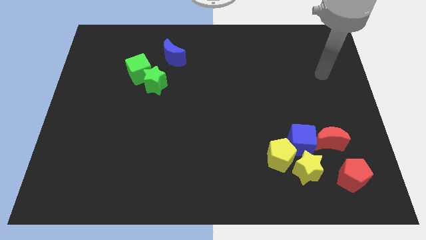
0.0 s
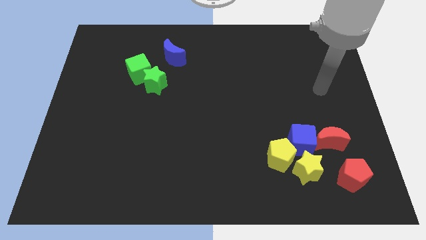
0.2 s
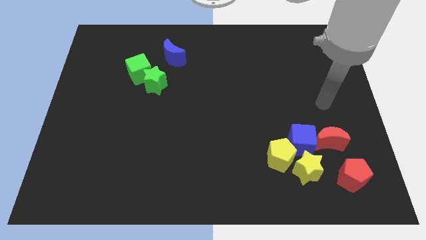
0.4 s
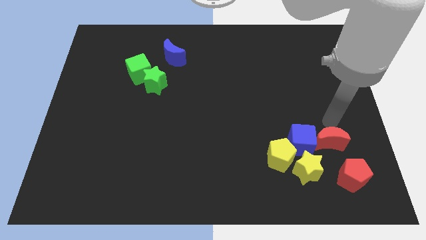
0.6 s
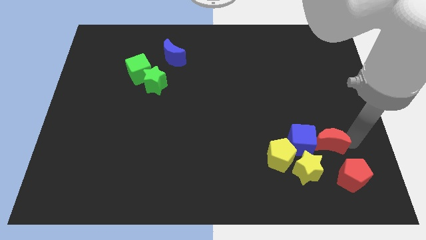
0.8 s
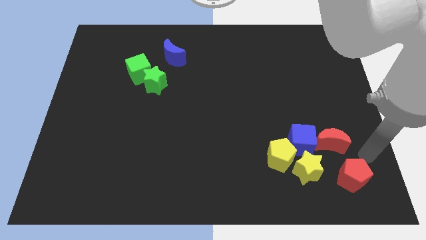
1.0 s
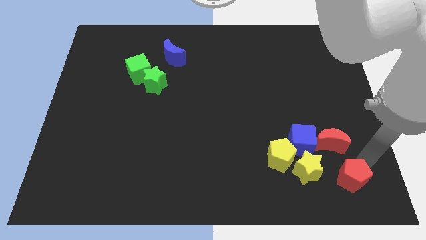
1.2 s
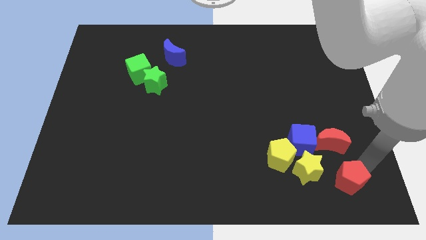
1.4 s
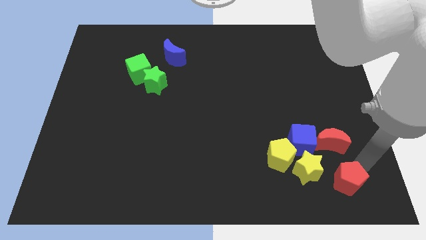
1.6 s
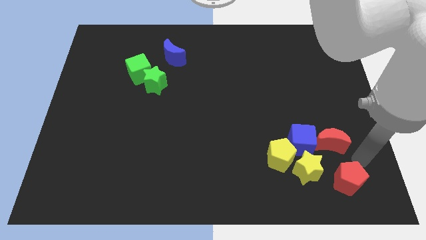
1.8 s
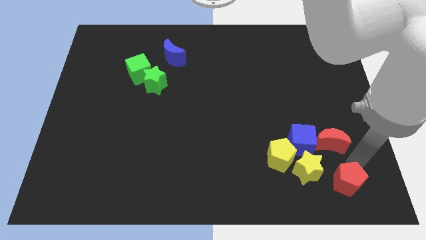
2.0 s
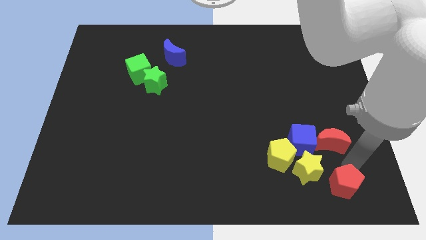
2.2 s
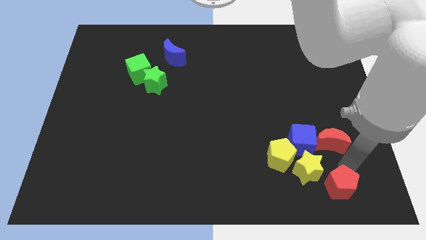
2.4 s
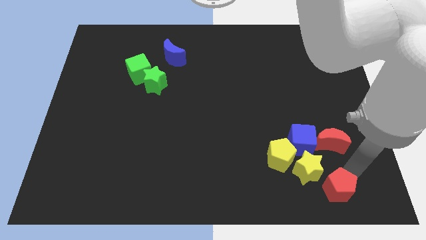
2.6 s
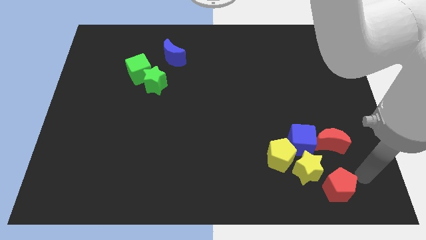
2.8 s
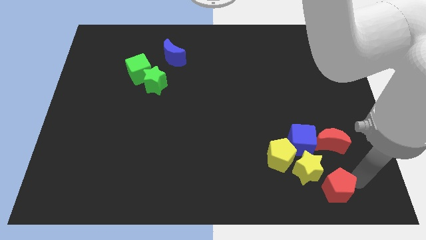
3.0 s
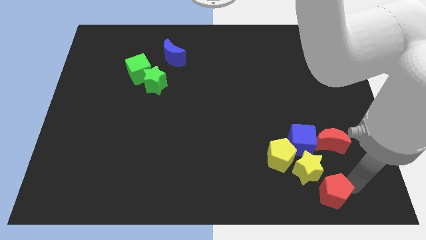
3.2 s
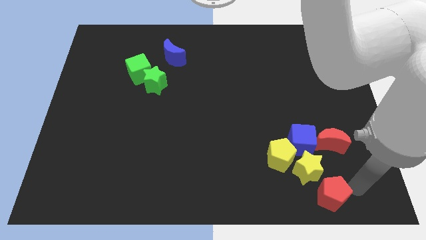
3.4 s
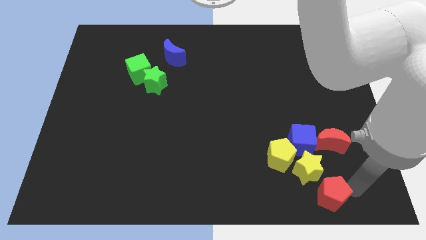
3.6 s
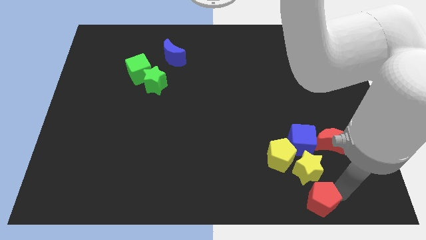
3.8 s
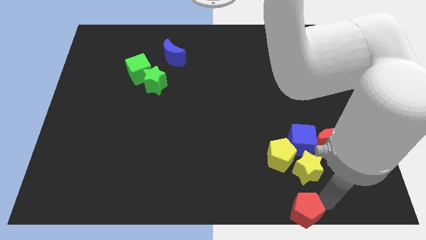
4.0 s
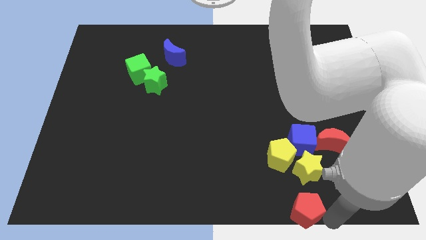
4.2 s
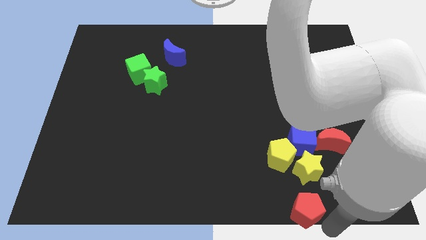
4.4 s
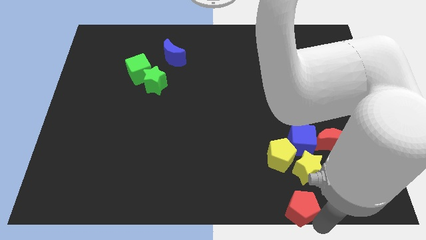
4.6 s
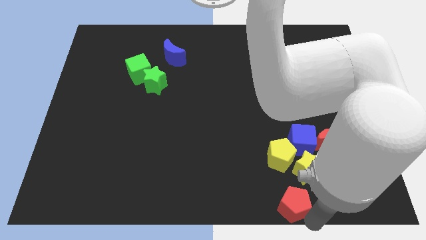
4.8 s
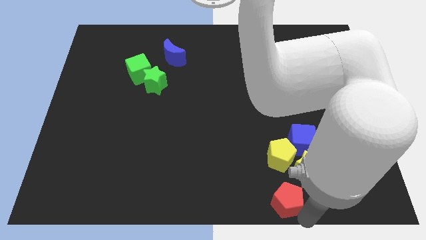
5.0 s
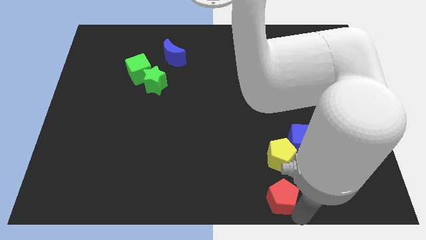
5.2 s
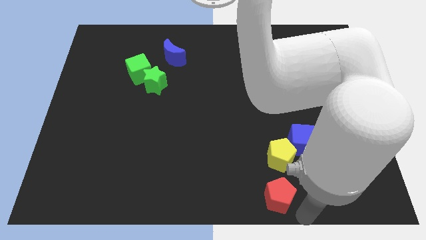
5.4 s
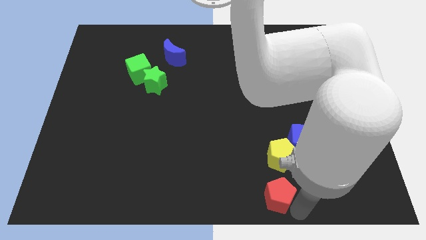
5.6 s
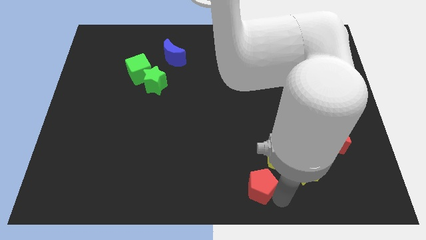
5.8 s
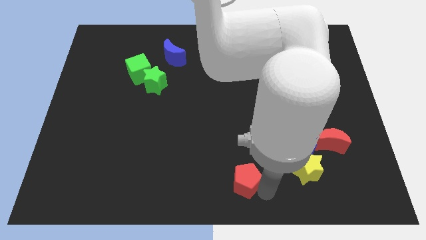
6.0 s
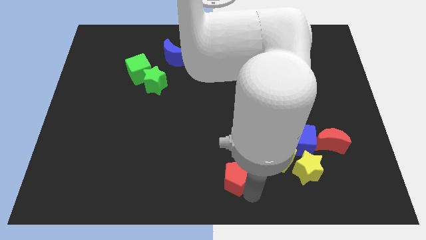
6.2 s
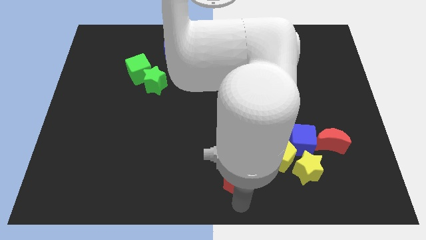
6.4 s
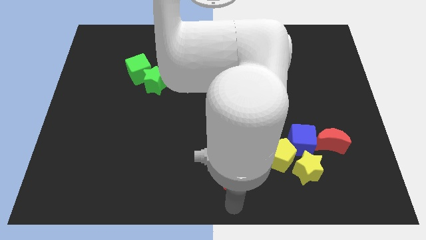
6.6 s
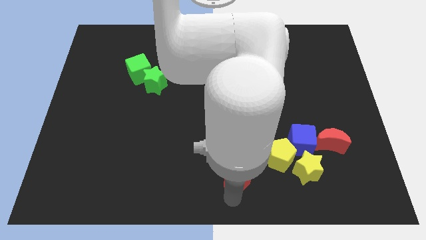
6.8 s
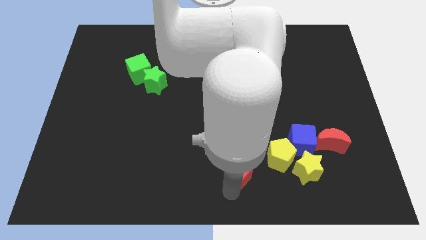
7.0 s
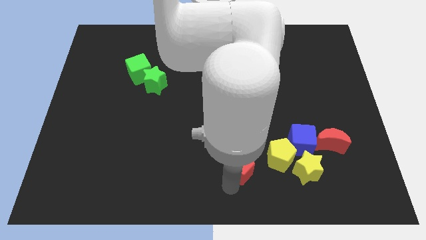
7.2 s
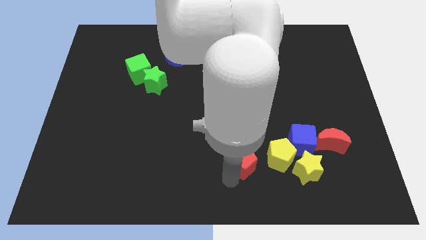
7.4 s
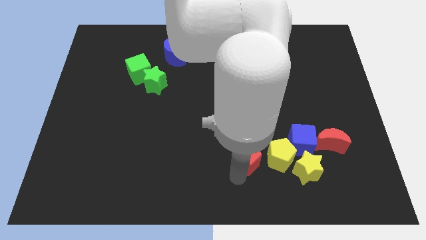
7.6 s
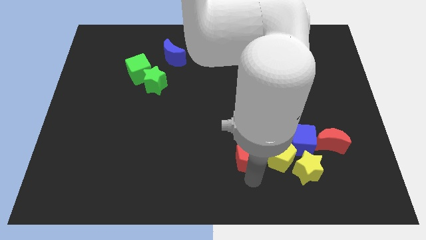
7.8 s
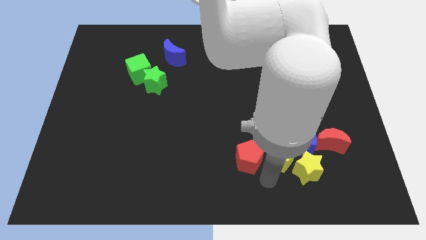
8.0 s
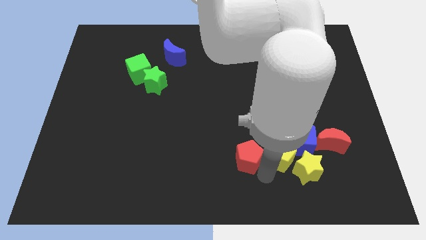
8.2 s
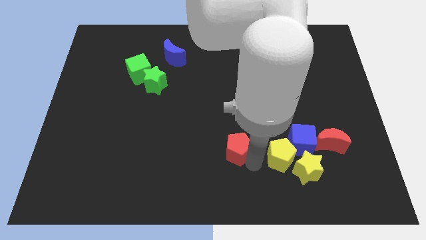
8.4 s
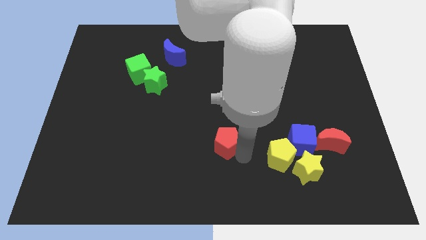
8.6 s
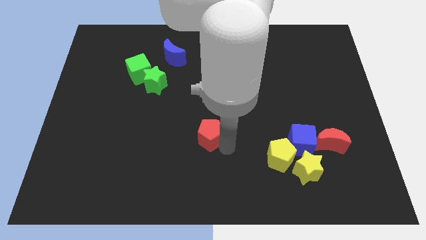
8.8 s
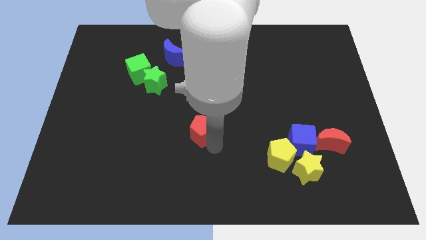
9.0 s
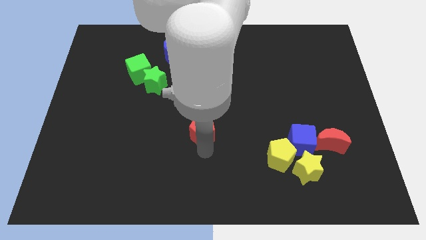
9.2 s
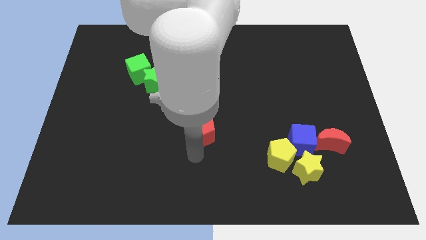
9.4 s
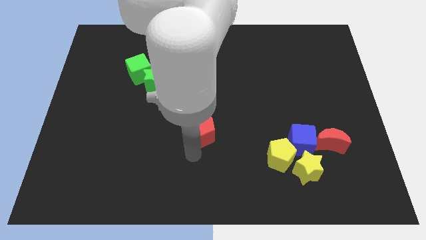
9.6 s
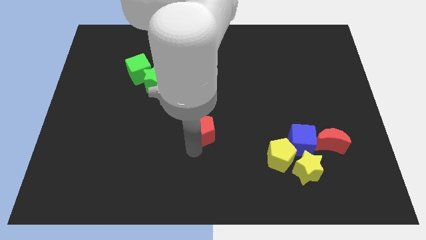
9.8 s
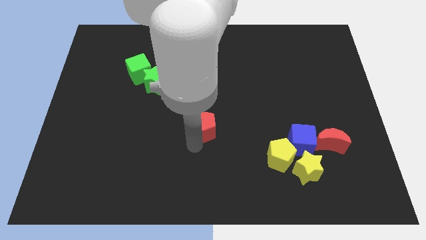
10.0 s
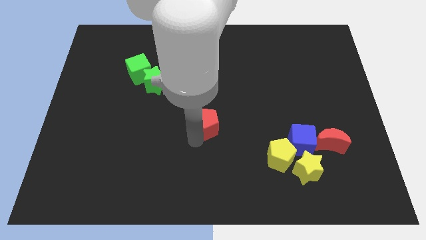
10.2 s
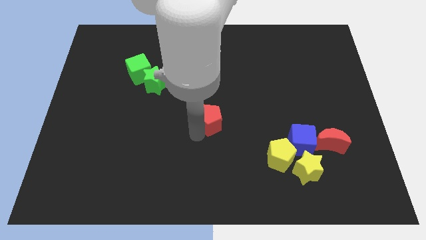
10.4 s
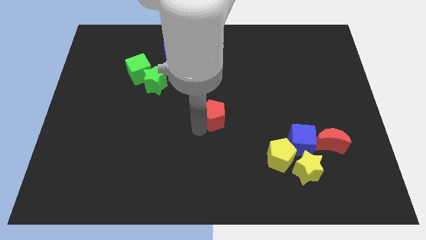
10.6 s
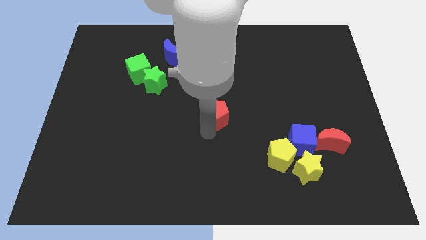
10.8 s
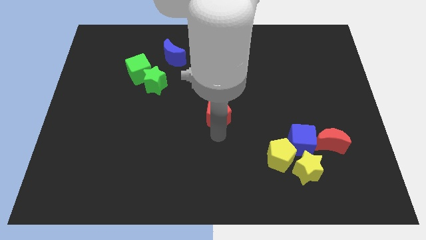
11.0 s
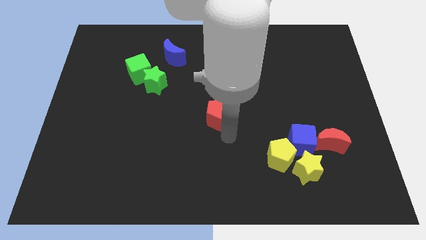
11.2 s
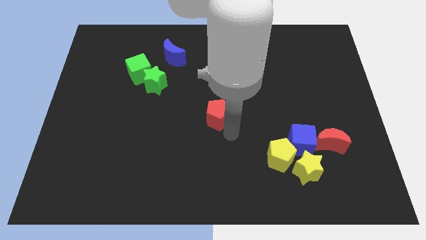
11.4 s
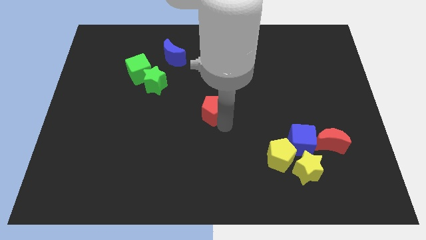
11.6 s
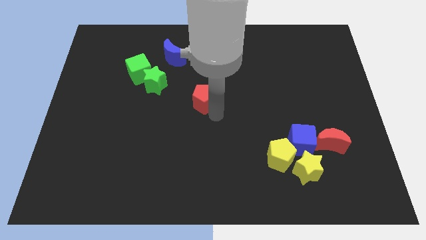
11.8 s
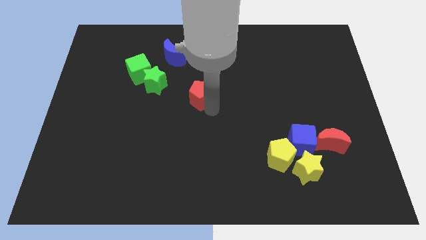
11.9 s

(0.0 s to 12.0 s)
push the red pentagon to the right of the green star

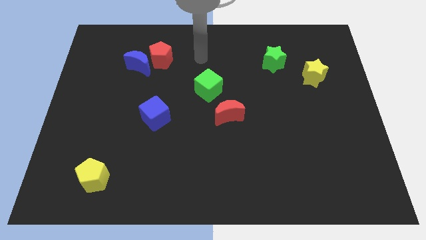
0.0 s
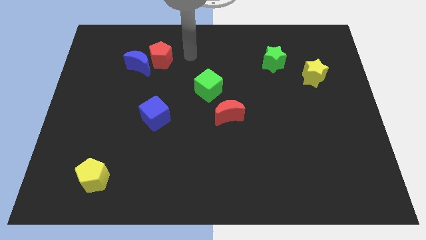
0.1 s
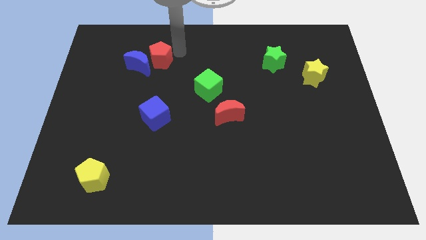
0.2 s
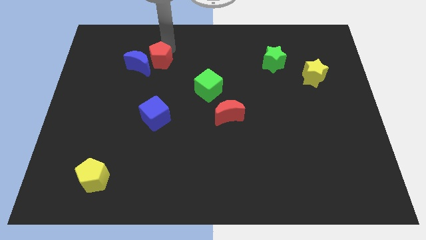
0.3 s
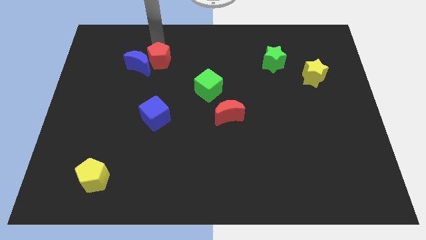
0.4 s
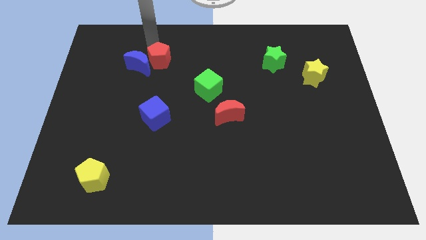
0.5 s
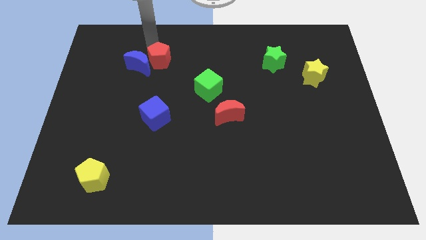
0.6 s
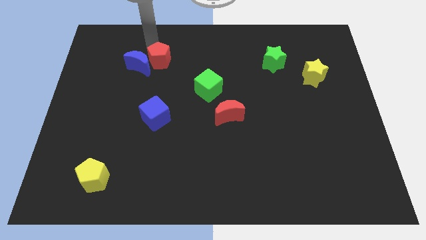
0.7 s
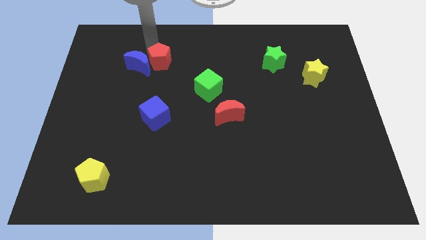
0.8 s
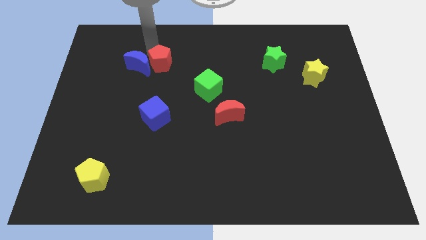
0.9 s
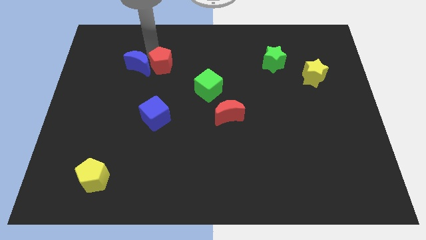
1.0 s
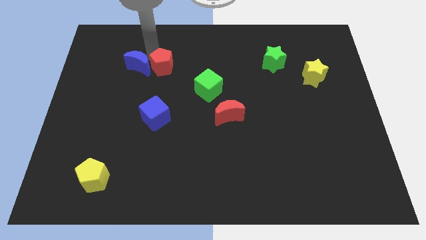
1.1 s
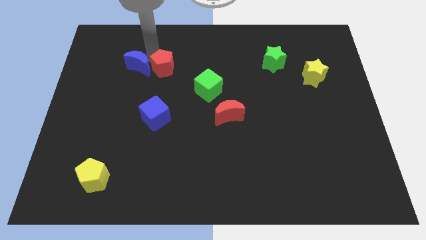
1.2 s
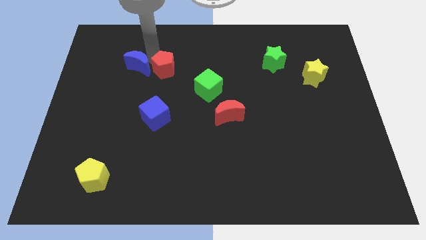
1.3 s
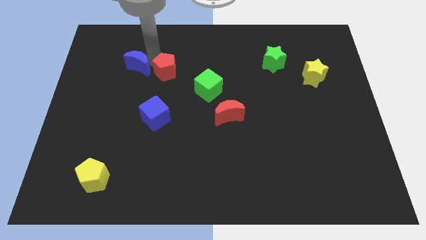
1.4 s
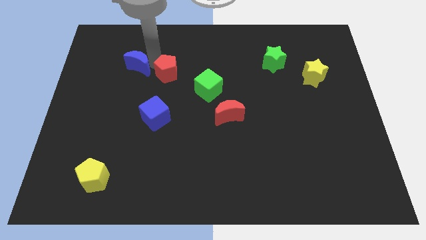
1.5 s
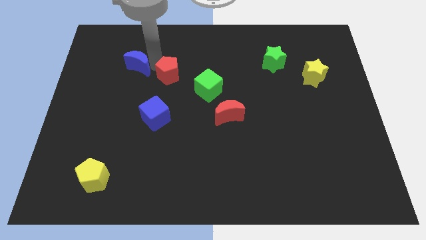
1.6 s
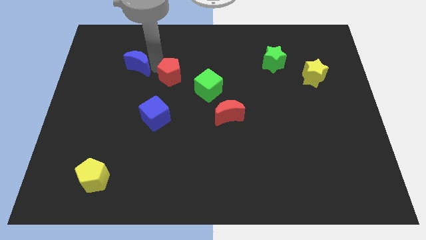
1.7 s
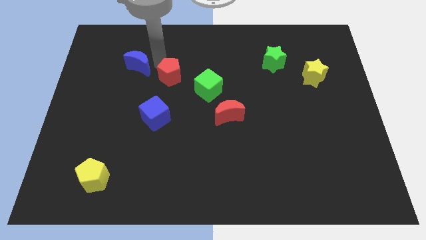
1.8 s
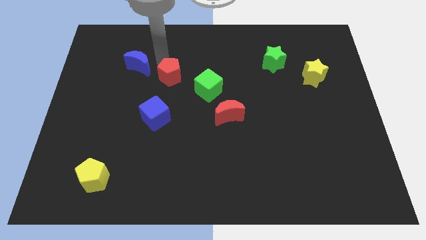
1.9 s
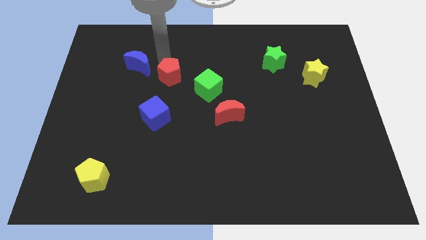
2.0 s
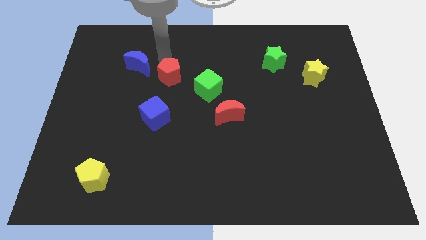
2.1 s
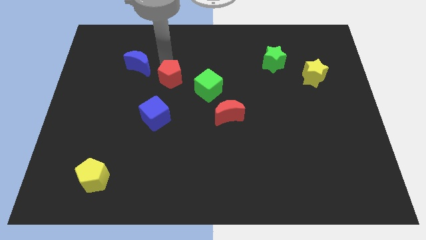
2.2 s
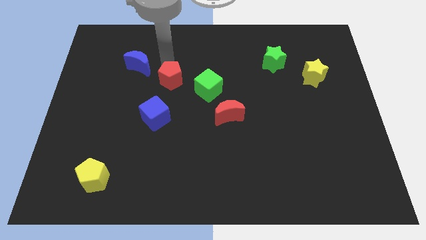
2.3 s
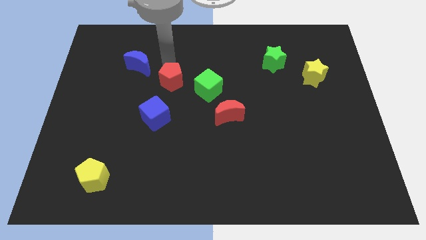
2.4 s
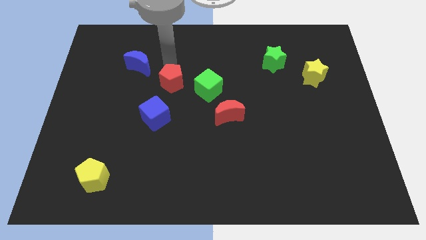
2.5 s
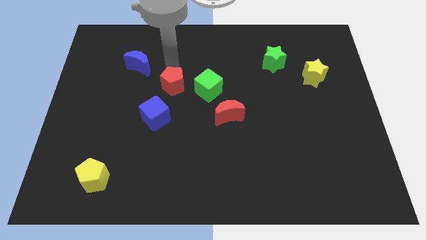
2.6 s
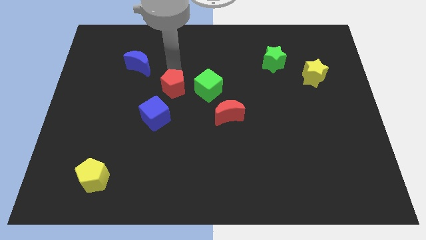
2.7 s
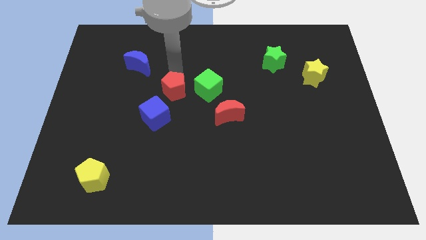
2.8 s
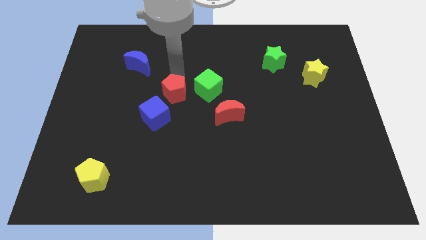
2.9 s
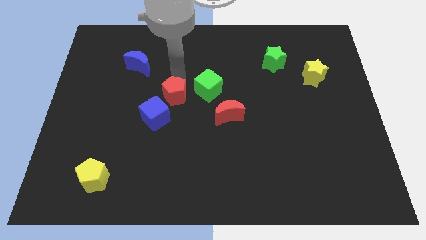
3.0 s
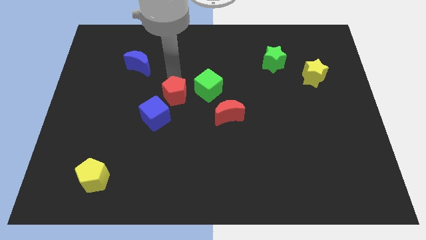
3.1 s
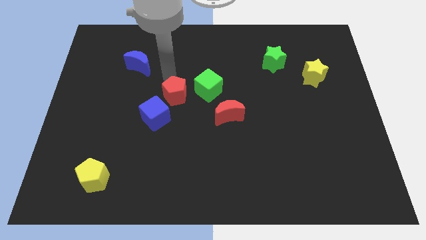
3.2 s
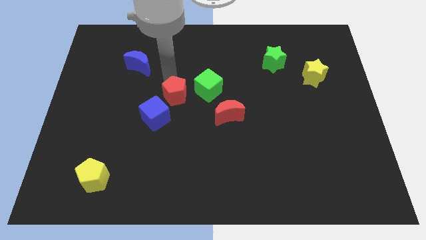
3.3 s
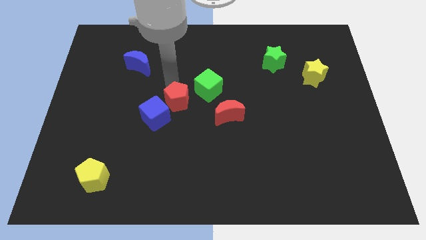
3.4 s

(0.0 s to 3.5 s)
move the red pentagon to the left side of the red moon
